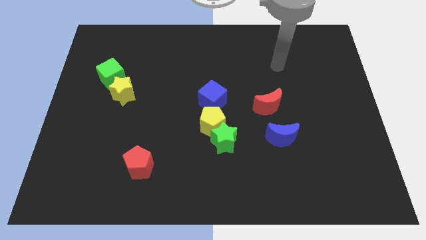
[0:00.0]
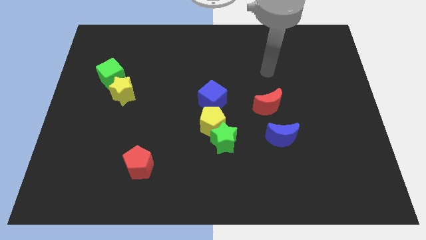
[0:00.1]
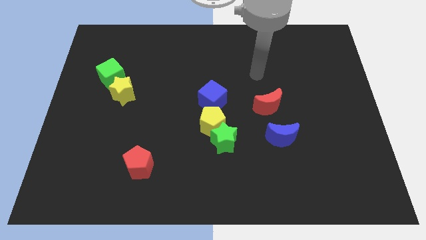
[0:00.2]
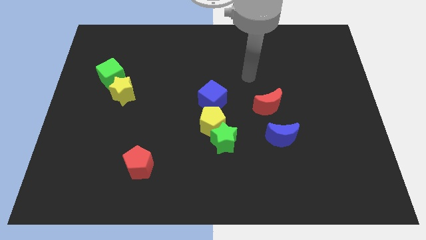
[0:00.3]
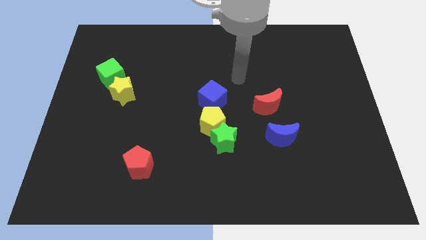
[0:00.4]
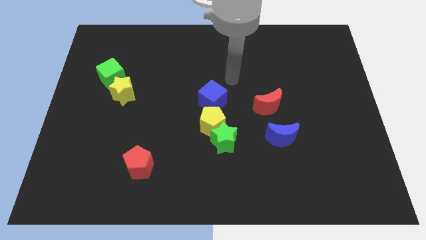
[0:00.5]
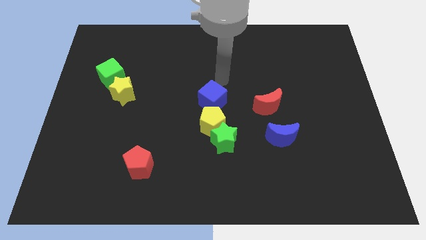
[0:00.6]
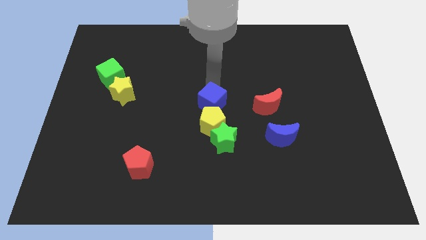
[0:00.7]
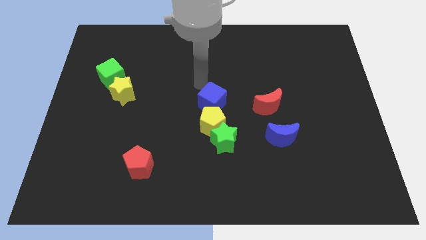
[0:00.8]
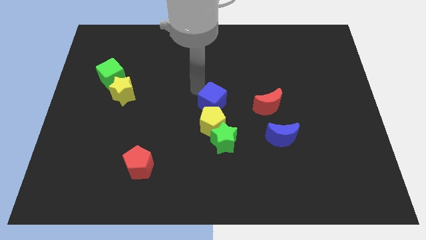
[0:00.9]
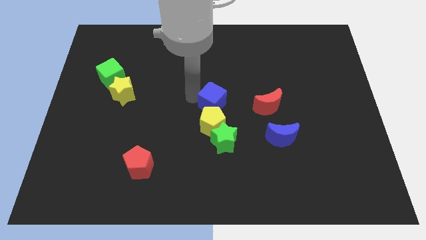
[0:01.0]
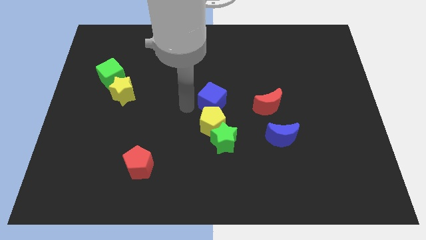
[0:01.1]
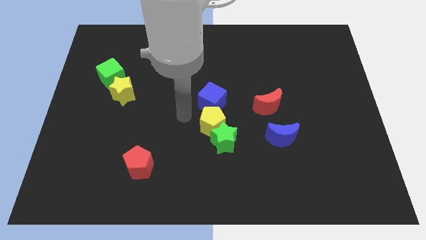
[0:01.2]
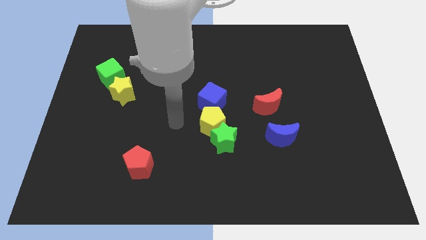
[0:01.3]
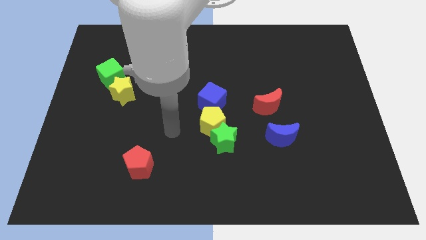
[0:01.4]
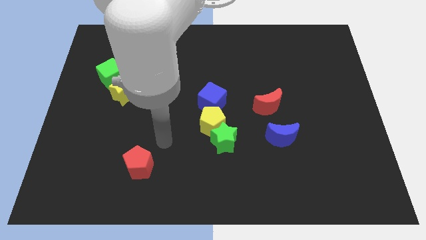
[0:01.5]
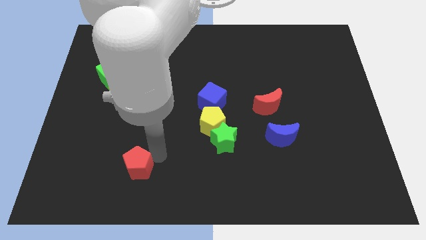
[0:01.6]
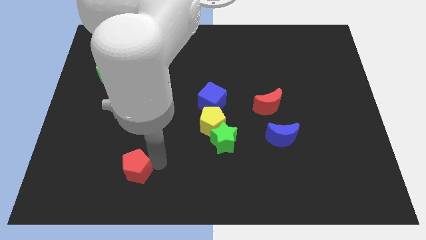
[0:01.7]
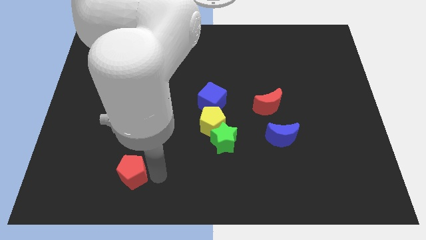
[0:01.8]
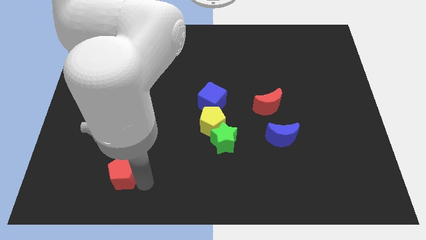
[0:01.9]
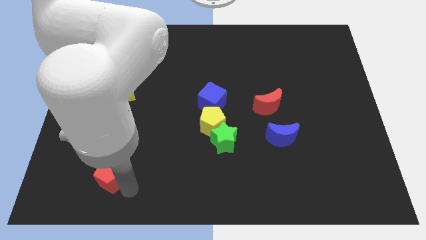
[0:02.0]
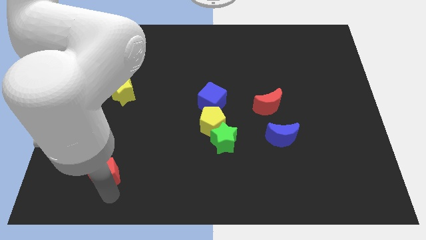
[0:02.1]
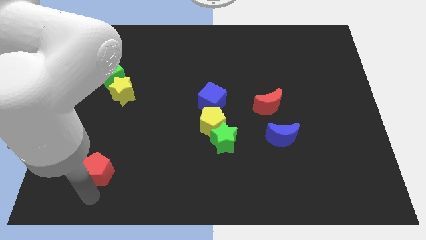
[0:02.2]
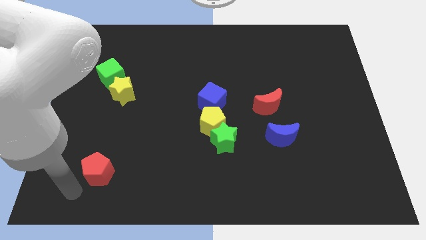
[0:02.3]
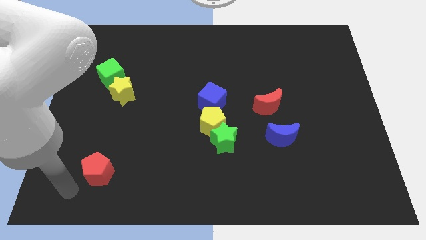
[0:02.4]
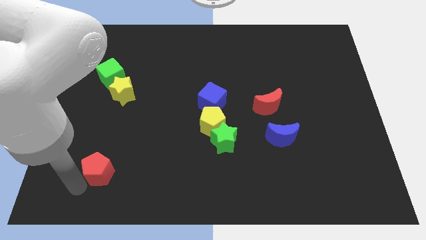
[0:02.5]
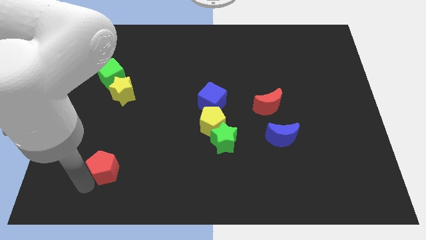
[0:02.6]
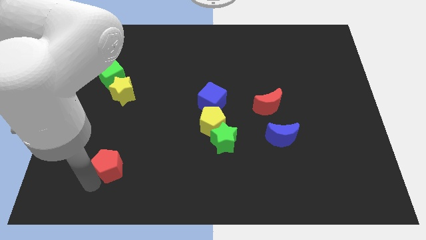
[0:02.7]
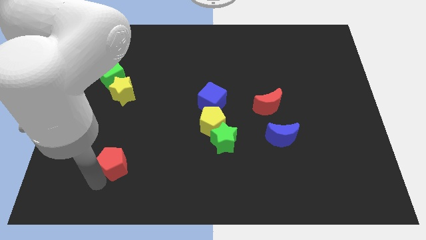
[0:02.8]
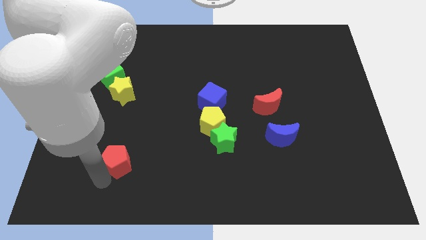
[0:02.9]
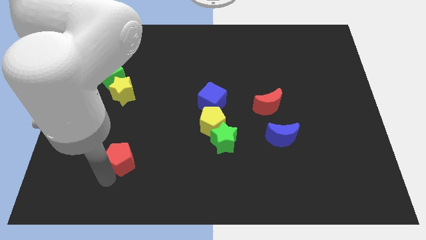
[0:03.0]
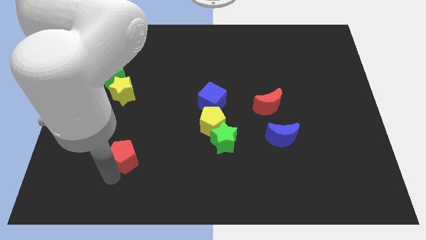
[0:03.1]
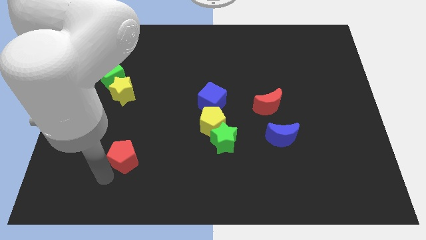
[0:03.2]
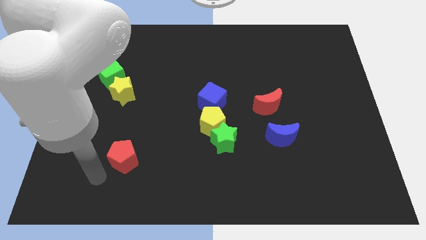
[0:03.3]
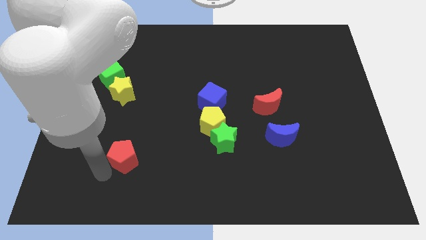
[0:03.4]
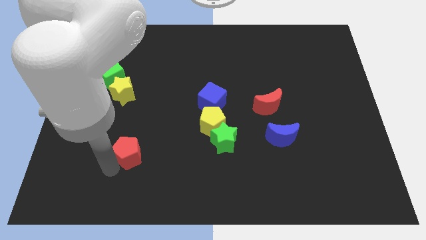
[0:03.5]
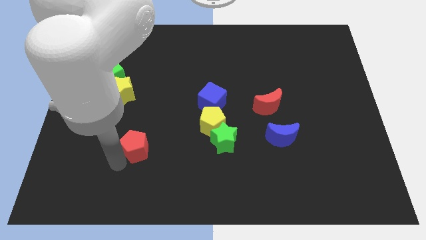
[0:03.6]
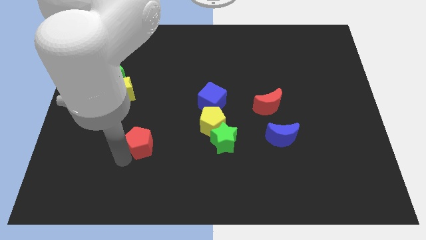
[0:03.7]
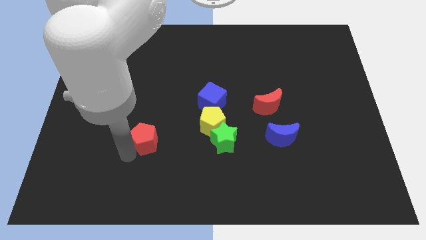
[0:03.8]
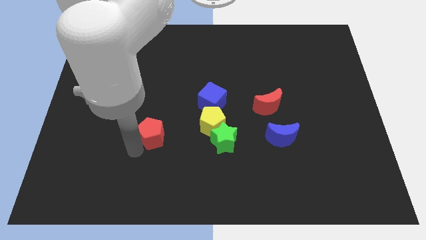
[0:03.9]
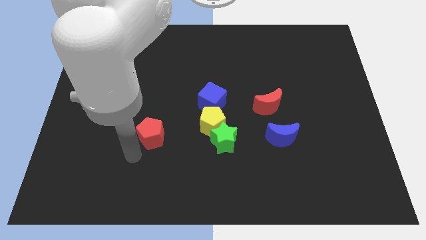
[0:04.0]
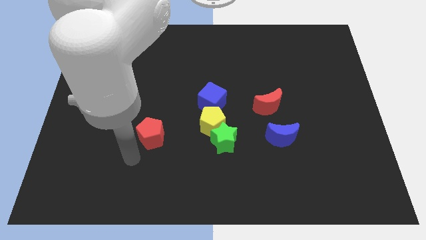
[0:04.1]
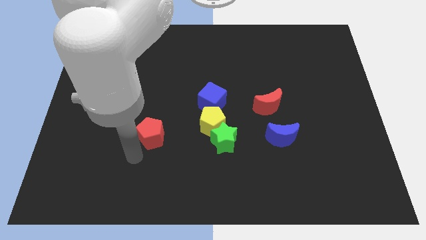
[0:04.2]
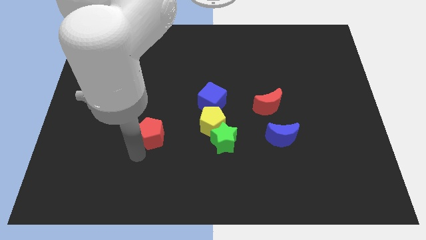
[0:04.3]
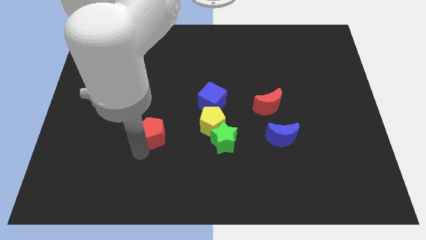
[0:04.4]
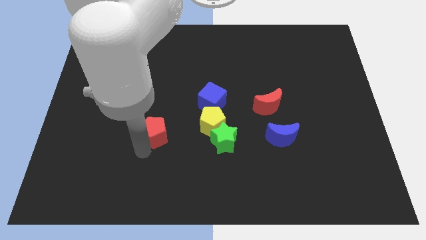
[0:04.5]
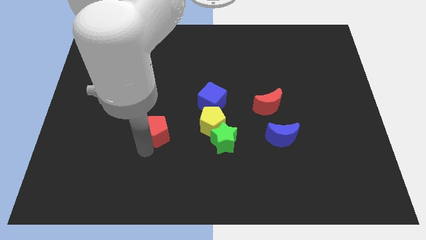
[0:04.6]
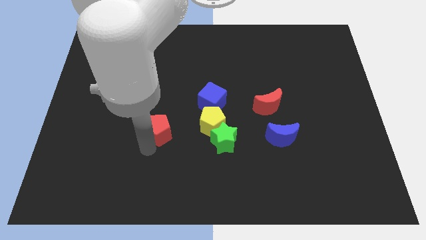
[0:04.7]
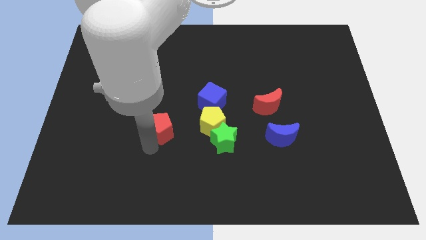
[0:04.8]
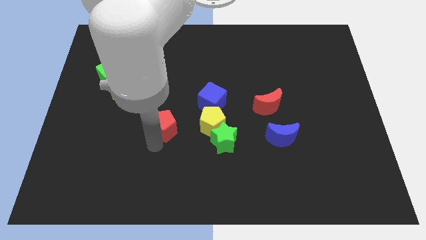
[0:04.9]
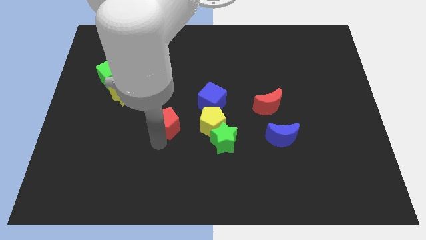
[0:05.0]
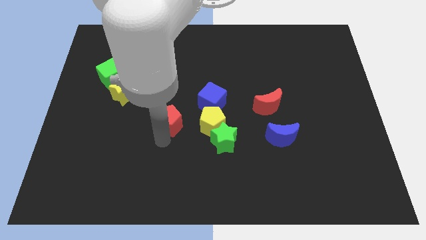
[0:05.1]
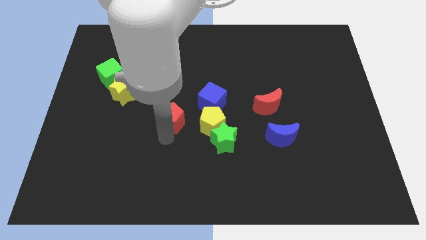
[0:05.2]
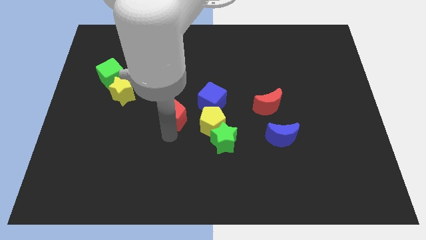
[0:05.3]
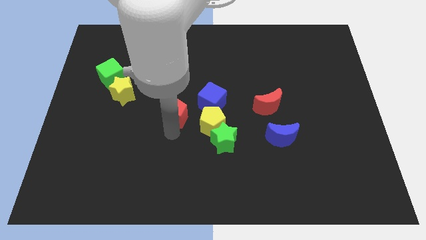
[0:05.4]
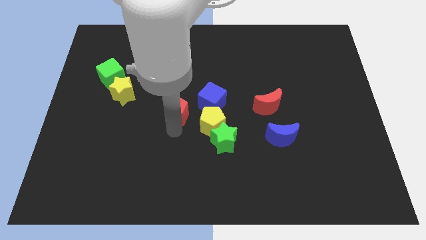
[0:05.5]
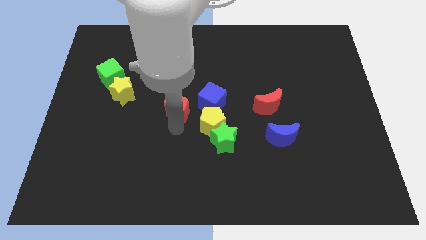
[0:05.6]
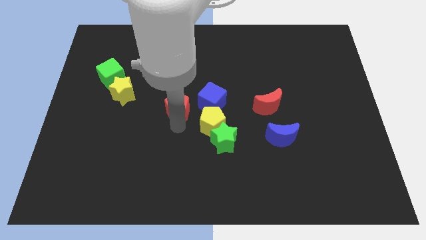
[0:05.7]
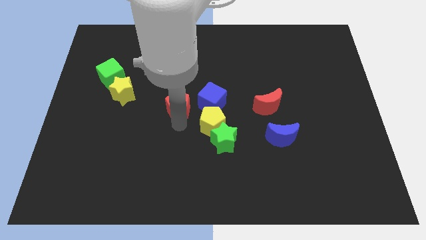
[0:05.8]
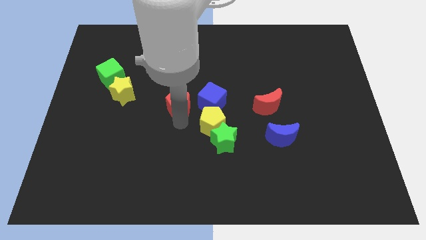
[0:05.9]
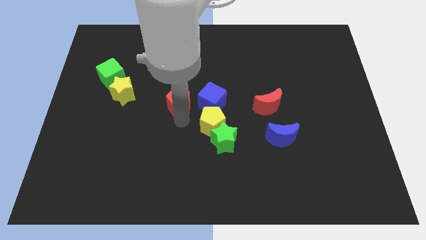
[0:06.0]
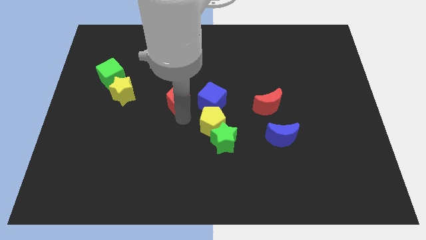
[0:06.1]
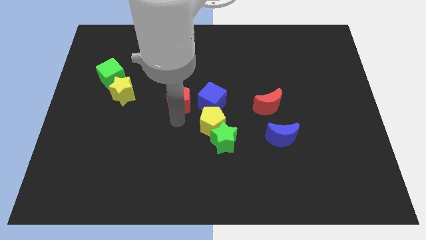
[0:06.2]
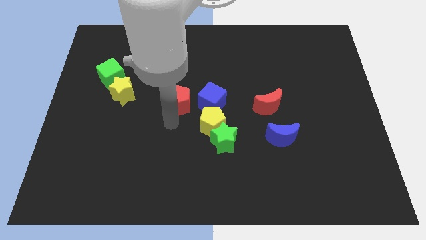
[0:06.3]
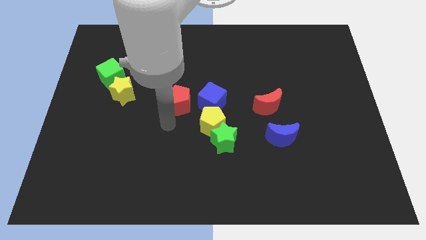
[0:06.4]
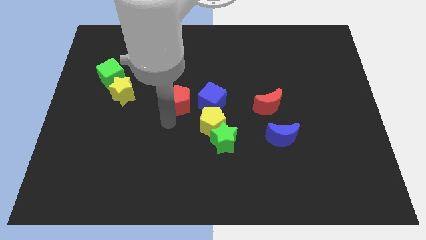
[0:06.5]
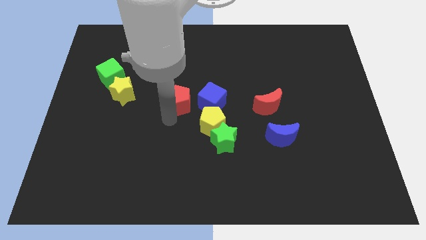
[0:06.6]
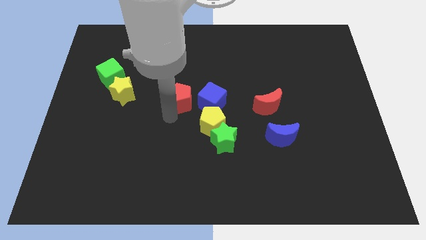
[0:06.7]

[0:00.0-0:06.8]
push the red pentagon to the top left of the blue cube

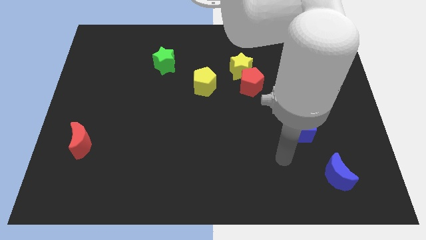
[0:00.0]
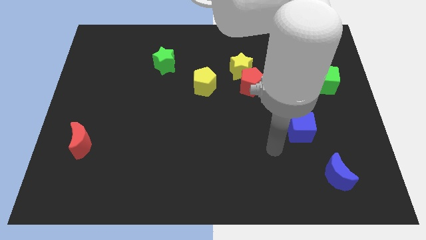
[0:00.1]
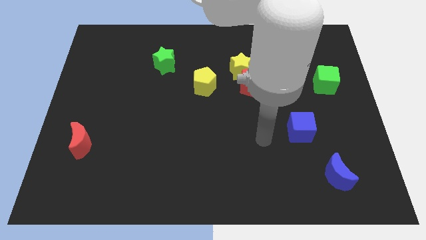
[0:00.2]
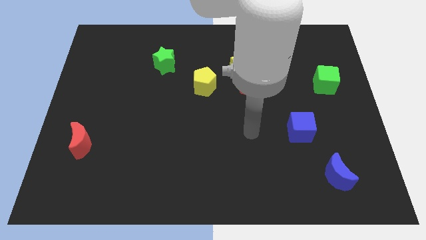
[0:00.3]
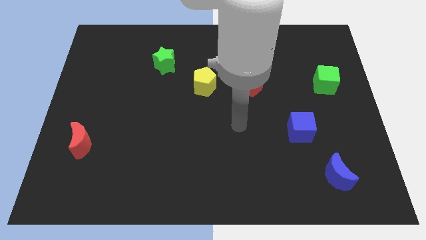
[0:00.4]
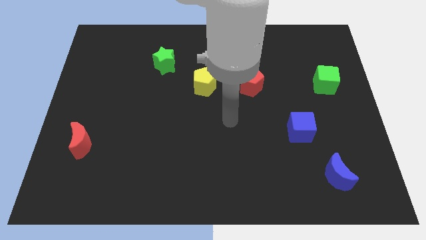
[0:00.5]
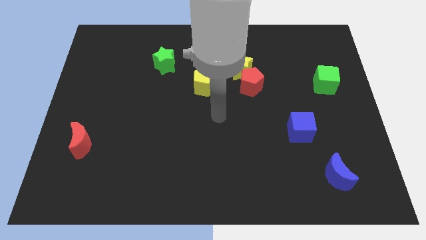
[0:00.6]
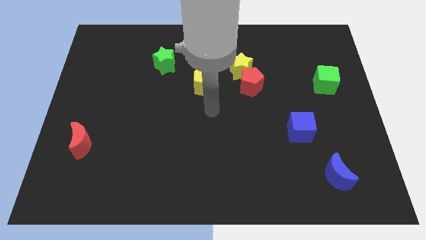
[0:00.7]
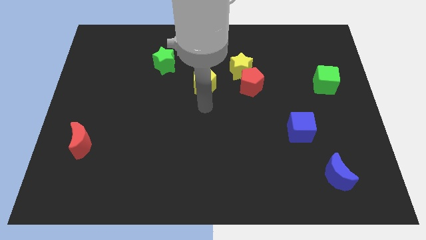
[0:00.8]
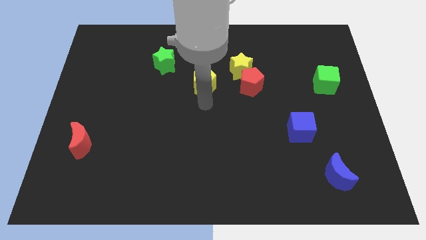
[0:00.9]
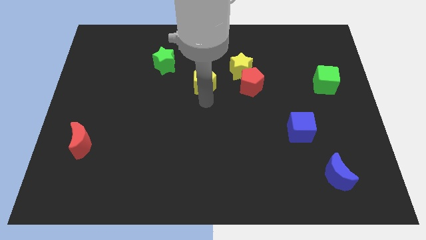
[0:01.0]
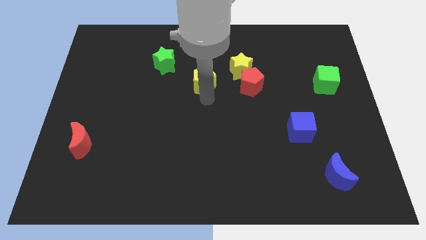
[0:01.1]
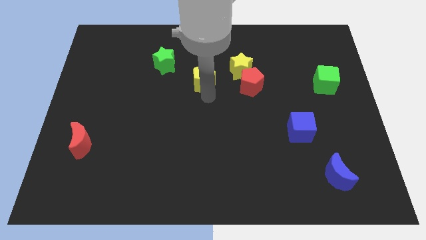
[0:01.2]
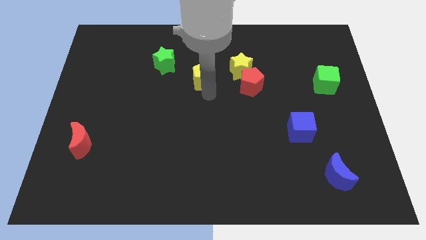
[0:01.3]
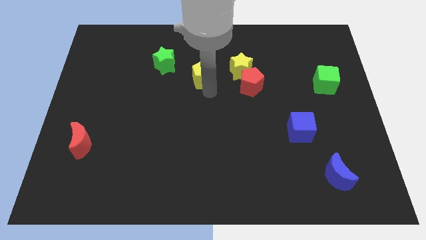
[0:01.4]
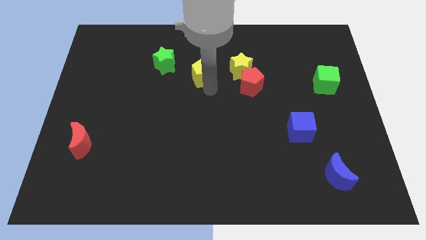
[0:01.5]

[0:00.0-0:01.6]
move the yellow pentagon to the right of the green star
